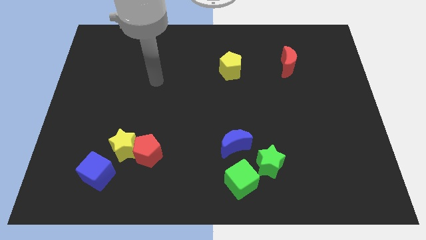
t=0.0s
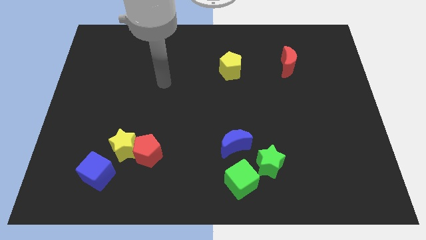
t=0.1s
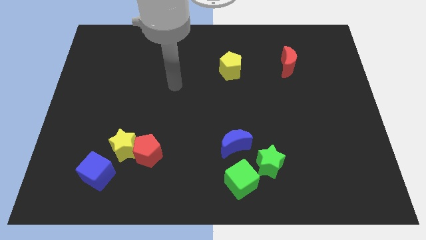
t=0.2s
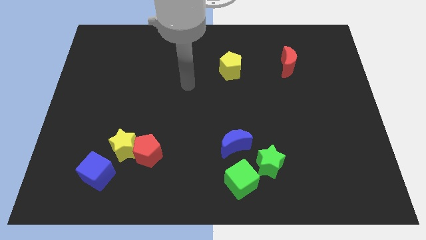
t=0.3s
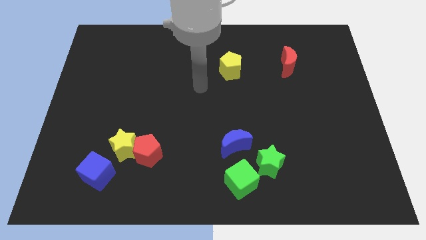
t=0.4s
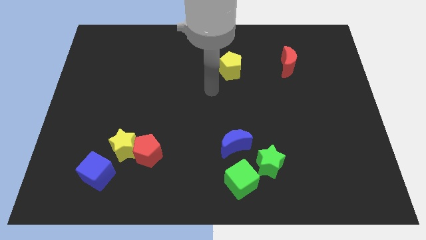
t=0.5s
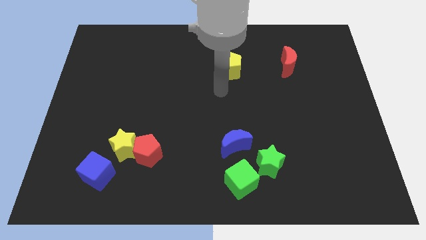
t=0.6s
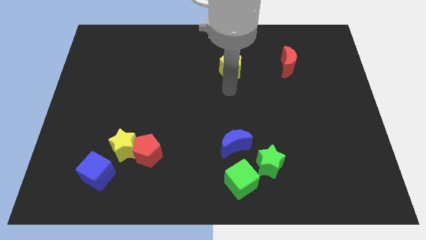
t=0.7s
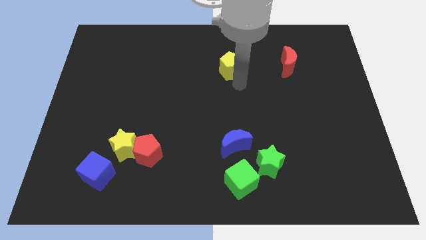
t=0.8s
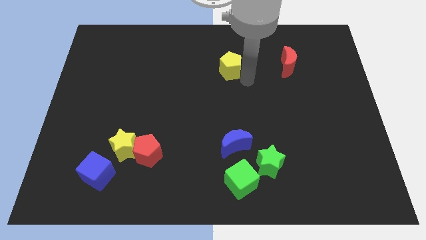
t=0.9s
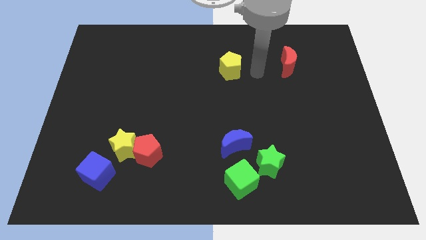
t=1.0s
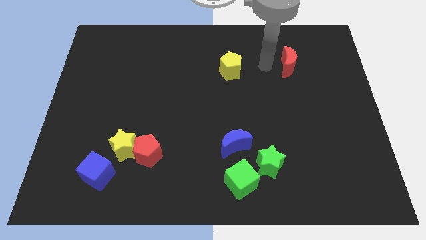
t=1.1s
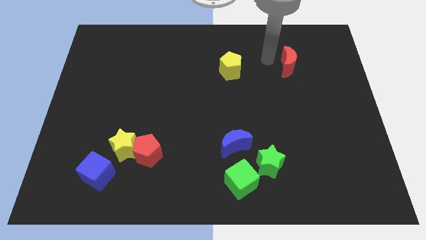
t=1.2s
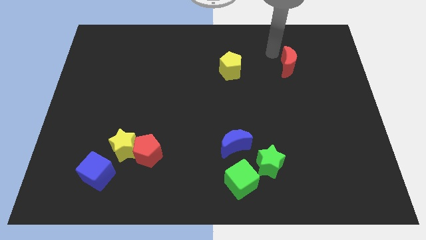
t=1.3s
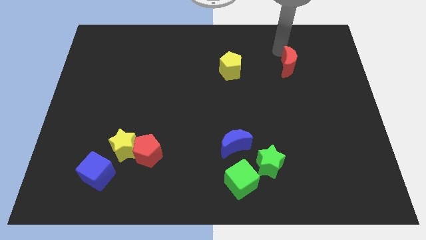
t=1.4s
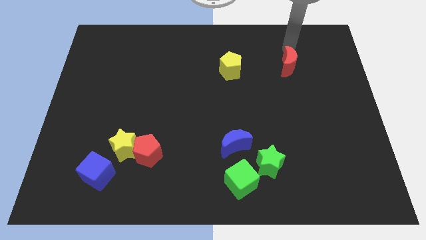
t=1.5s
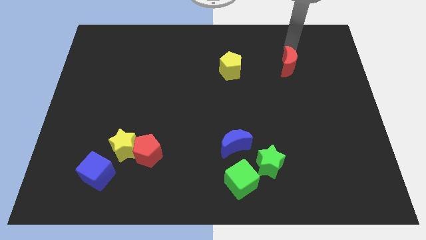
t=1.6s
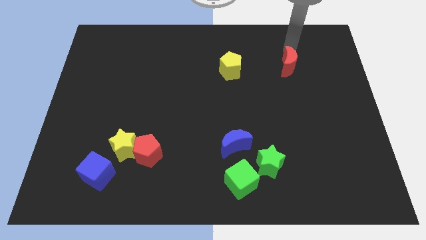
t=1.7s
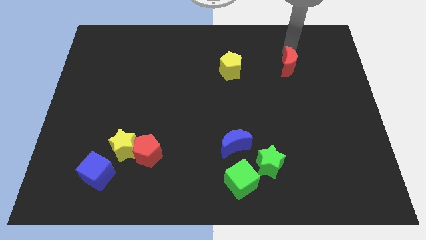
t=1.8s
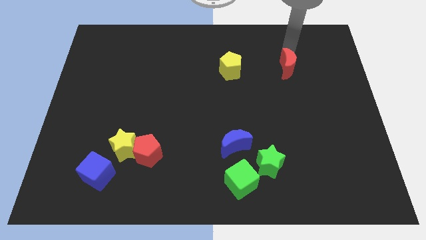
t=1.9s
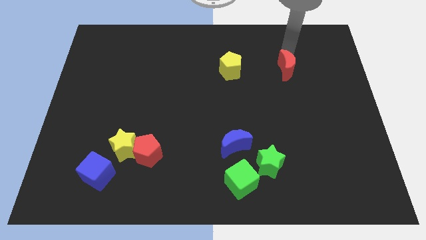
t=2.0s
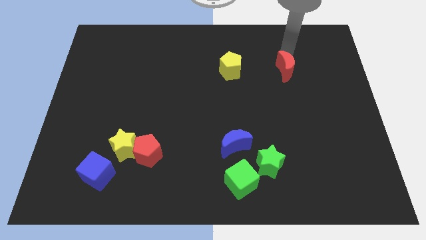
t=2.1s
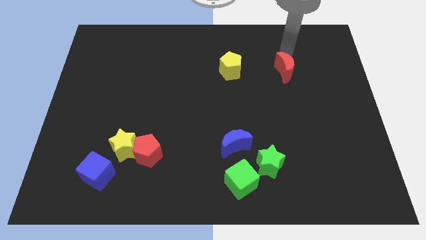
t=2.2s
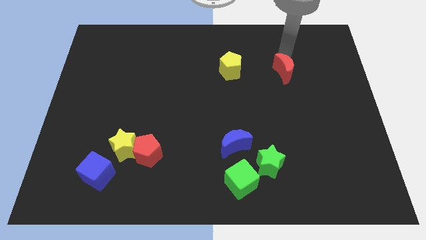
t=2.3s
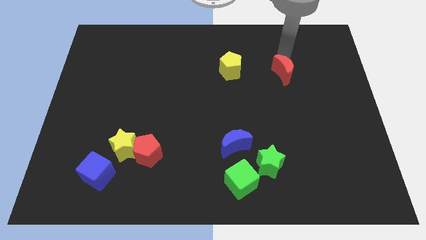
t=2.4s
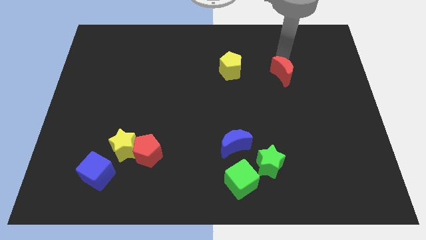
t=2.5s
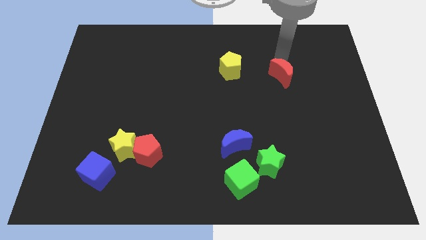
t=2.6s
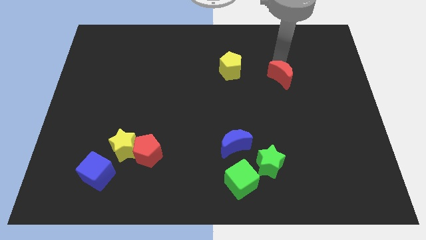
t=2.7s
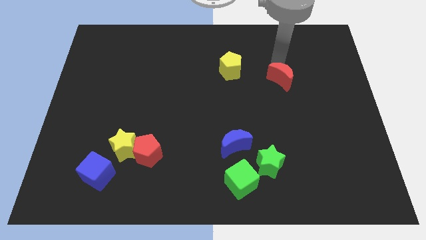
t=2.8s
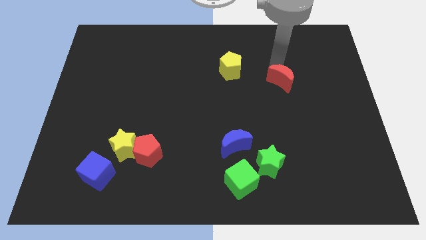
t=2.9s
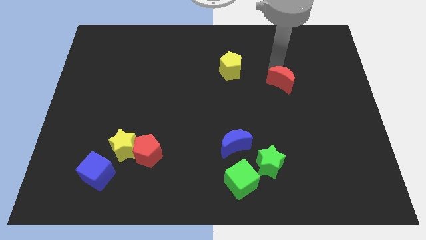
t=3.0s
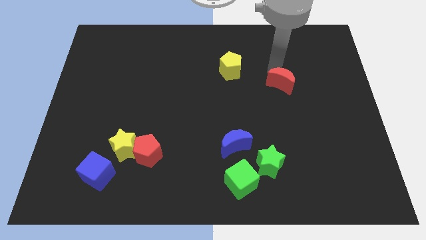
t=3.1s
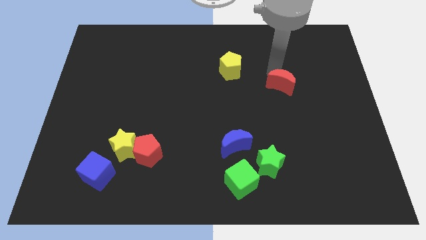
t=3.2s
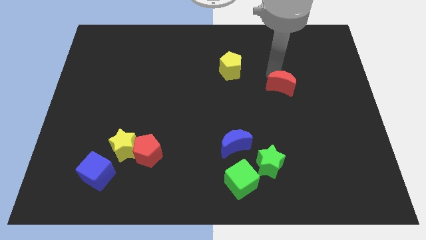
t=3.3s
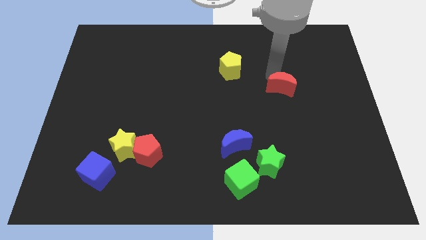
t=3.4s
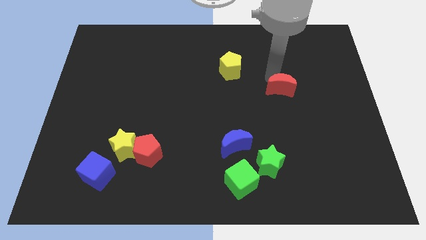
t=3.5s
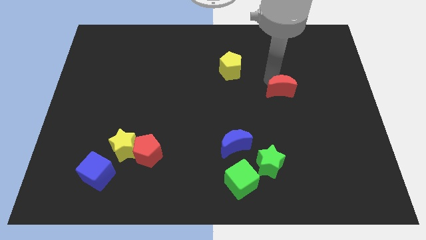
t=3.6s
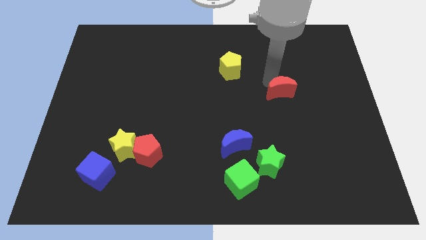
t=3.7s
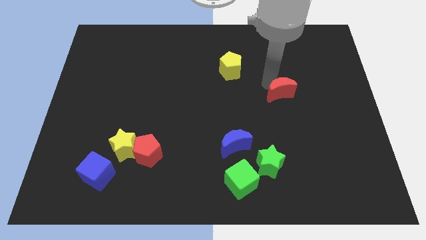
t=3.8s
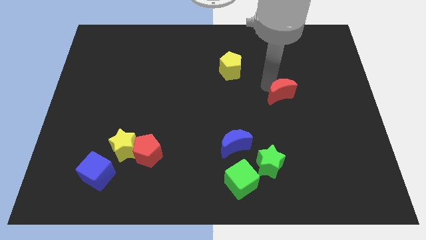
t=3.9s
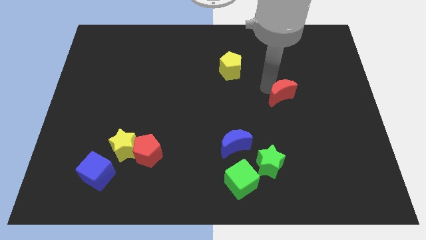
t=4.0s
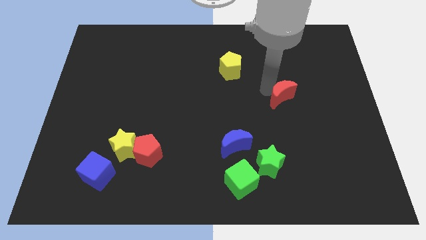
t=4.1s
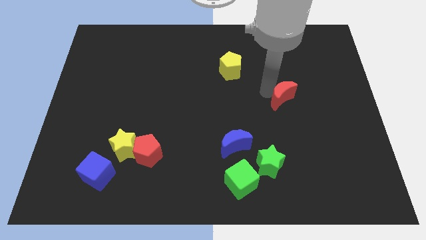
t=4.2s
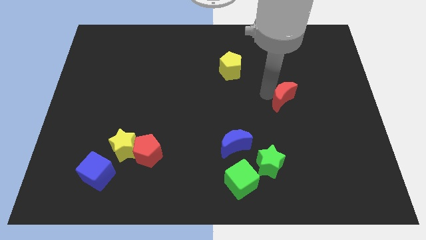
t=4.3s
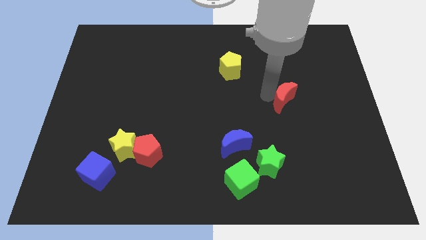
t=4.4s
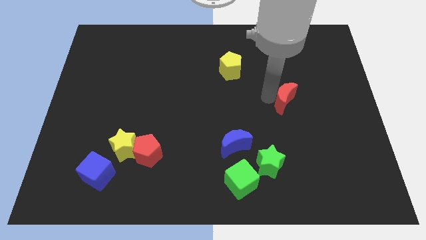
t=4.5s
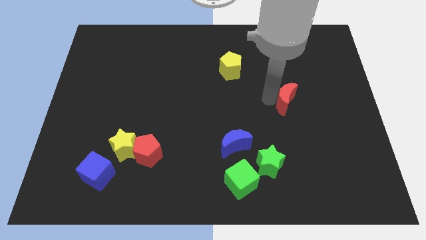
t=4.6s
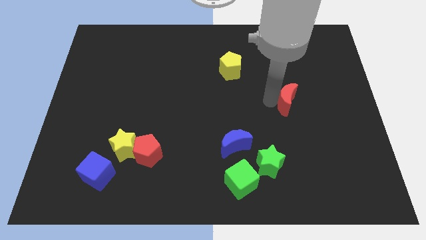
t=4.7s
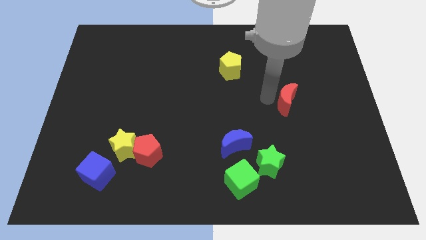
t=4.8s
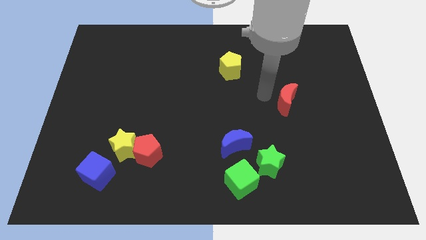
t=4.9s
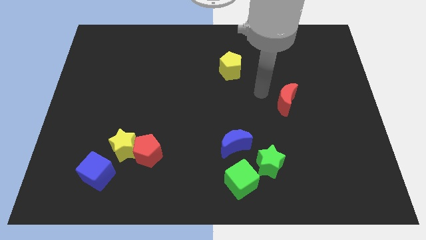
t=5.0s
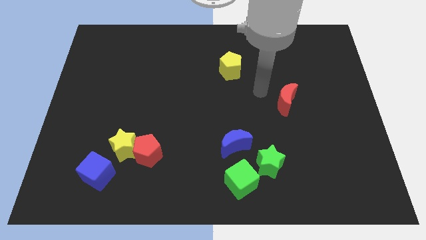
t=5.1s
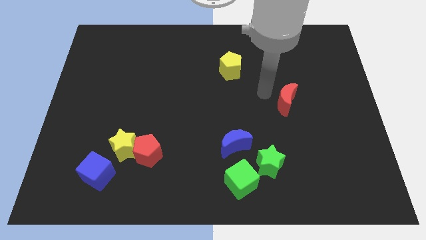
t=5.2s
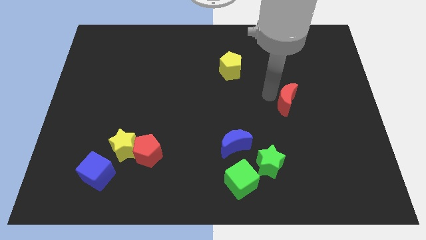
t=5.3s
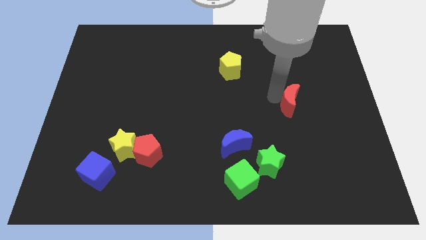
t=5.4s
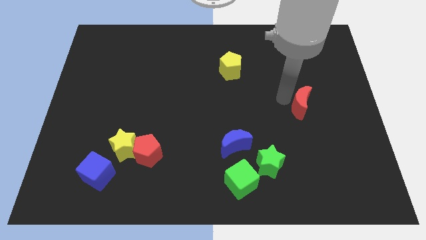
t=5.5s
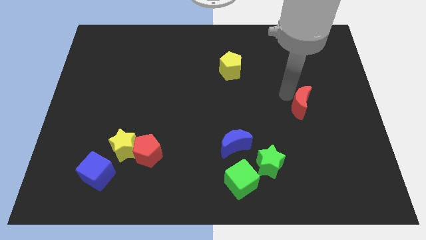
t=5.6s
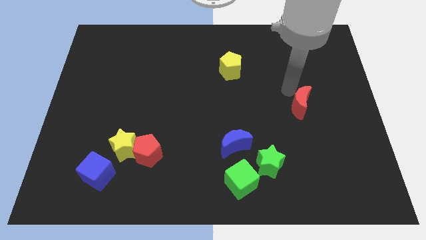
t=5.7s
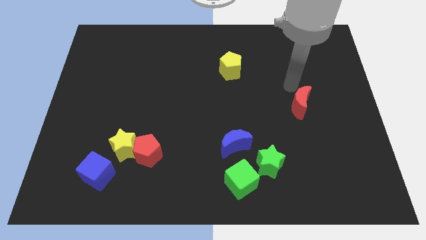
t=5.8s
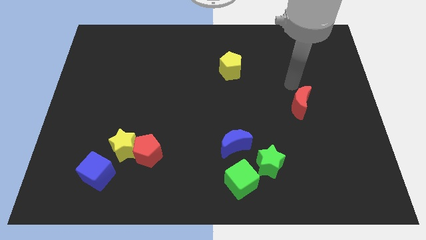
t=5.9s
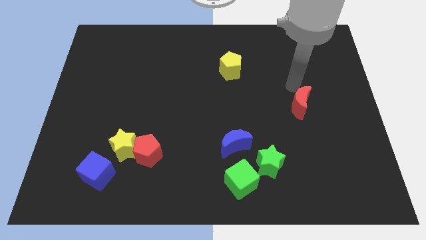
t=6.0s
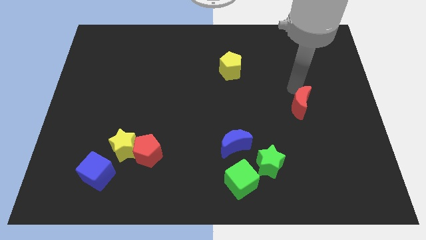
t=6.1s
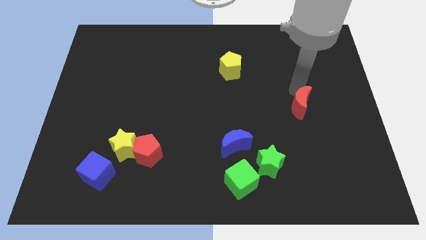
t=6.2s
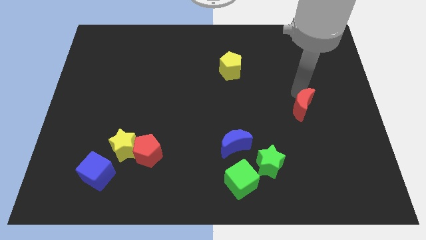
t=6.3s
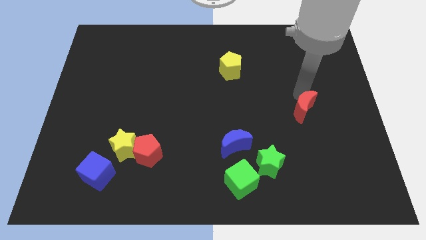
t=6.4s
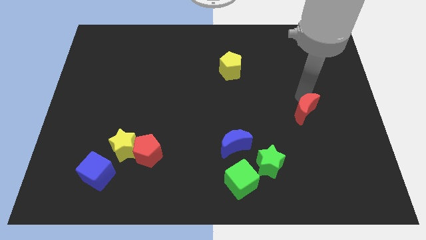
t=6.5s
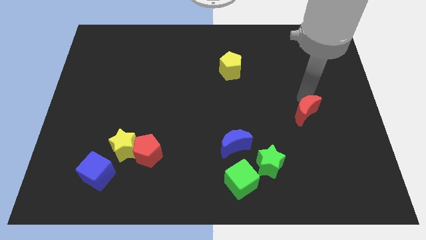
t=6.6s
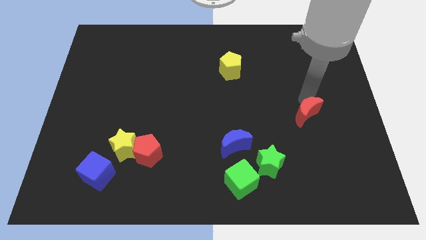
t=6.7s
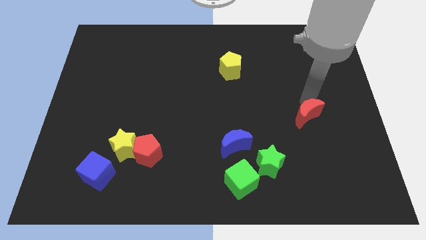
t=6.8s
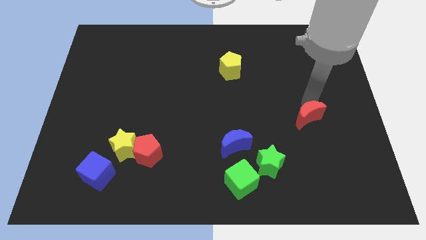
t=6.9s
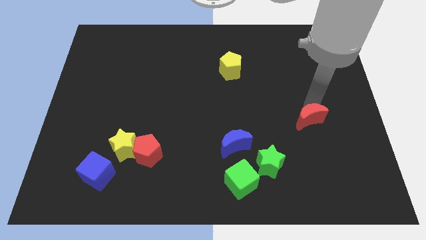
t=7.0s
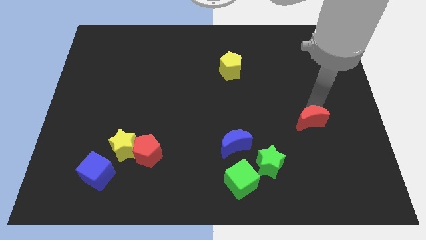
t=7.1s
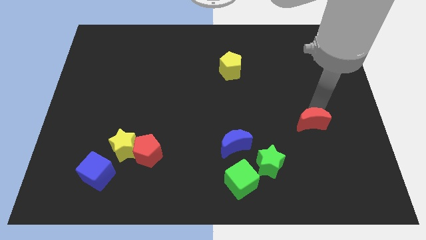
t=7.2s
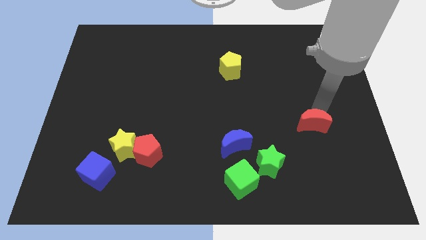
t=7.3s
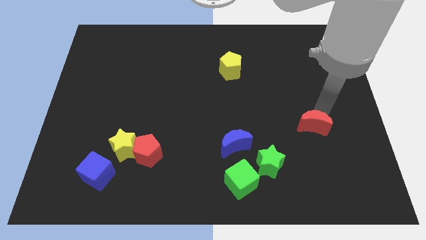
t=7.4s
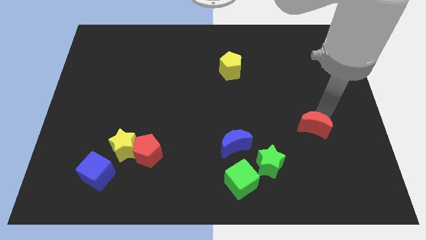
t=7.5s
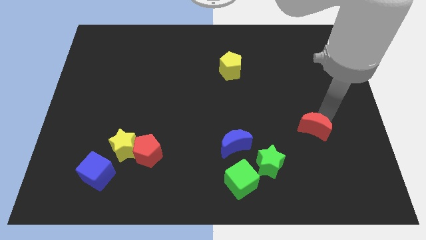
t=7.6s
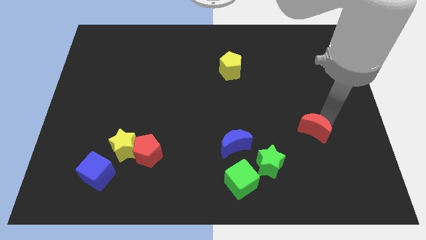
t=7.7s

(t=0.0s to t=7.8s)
move the red moon down

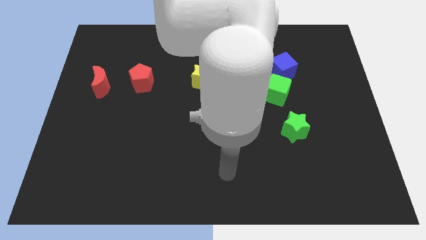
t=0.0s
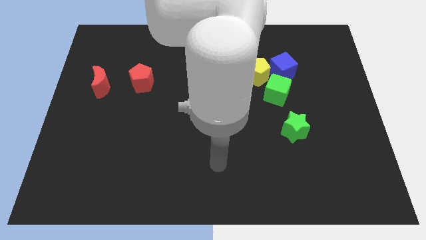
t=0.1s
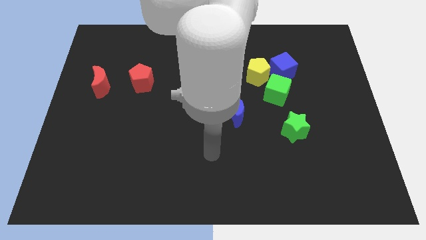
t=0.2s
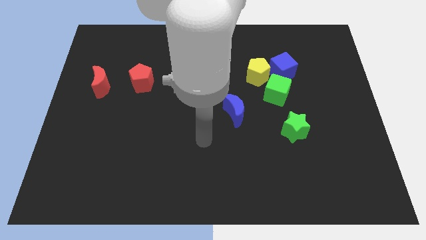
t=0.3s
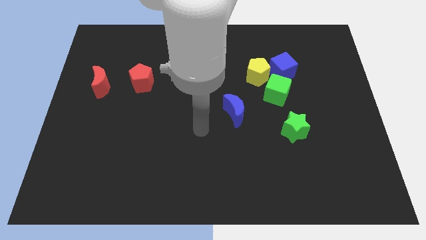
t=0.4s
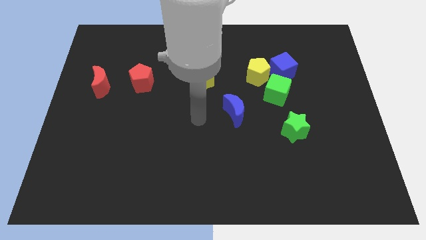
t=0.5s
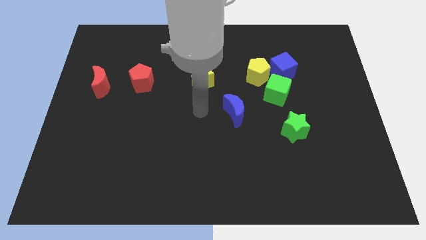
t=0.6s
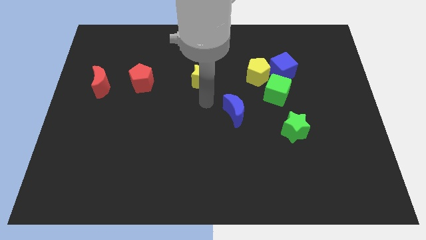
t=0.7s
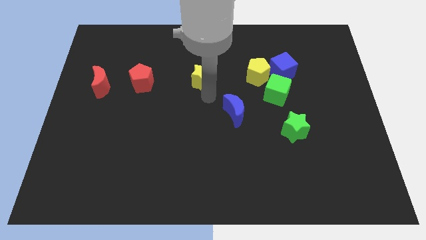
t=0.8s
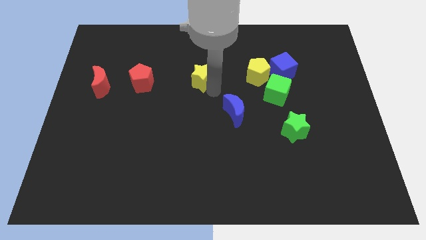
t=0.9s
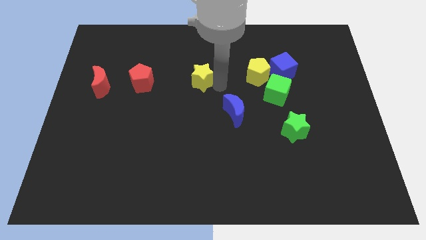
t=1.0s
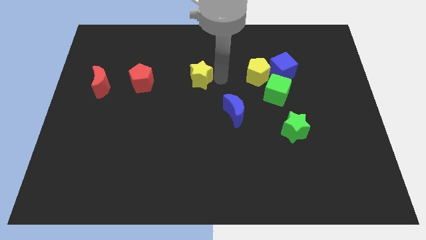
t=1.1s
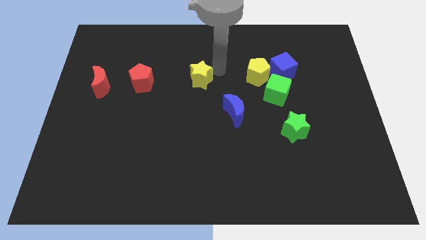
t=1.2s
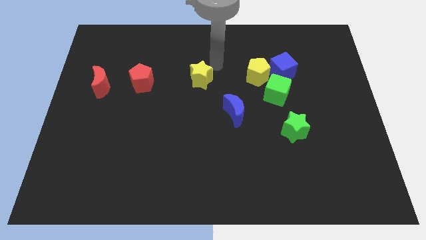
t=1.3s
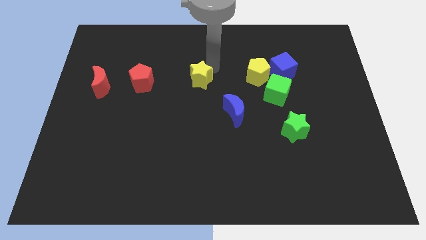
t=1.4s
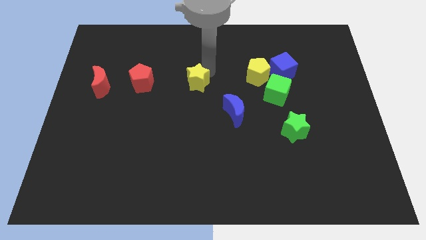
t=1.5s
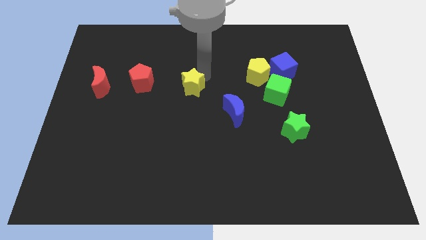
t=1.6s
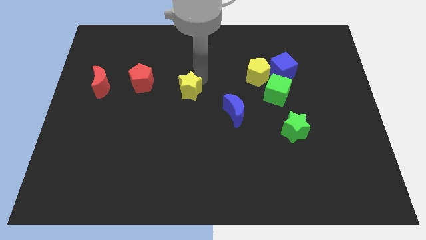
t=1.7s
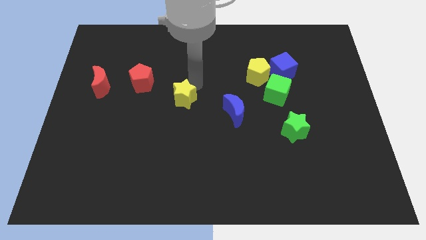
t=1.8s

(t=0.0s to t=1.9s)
move the yellow star a bit downwards and left diagonally
